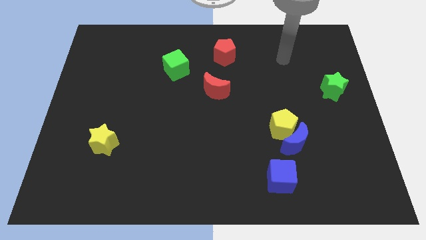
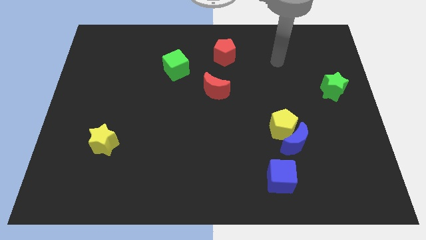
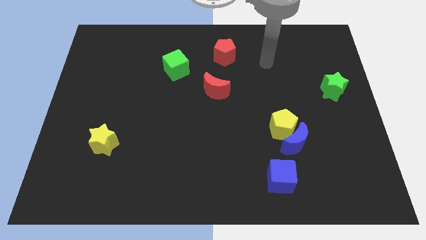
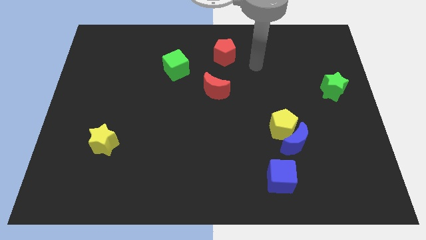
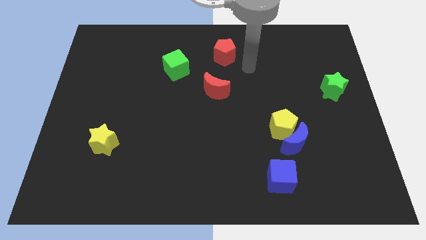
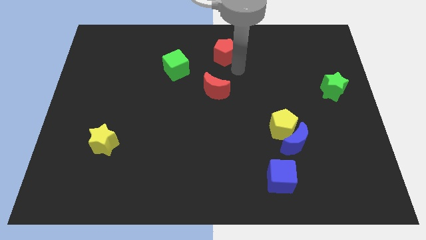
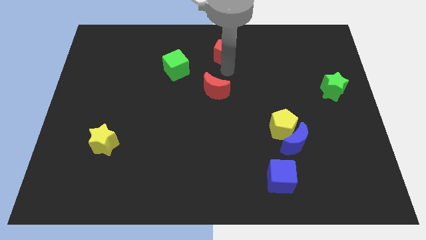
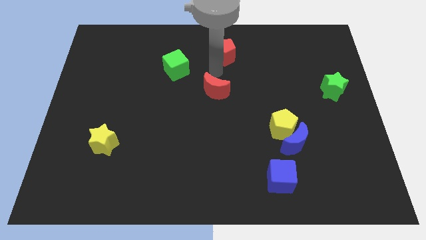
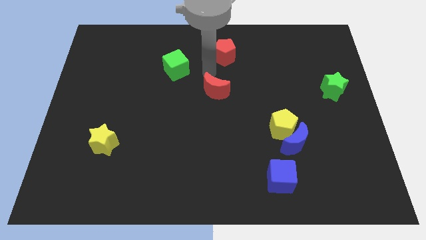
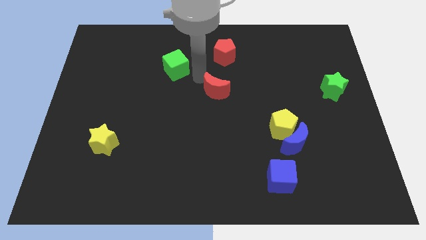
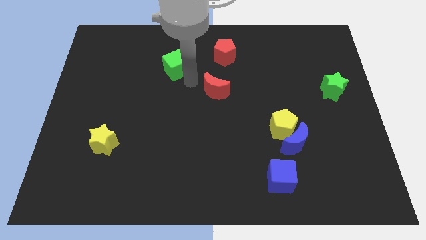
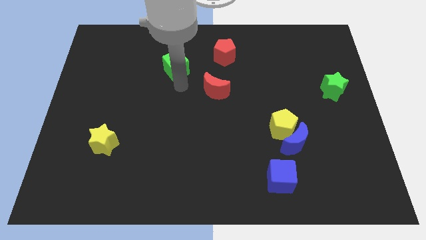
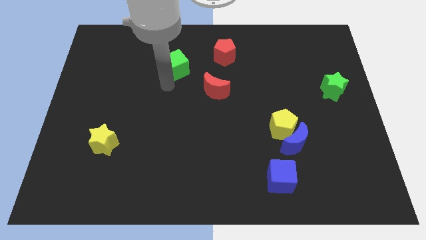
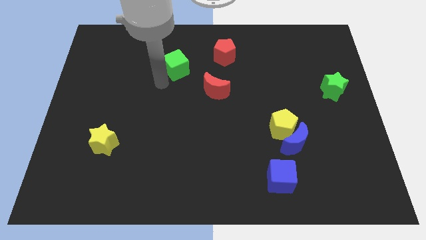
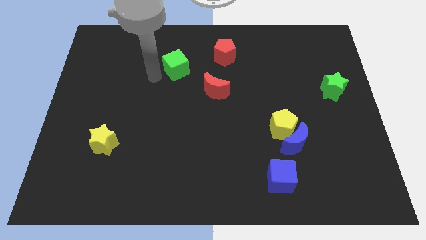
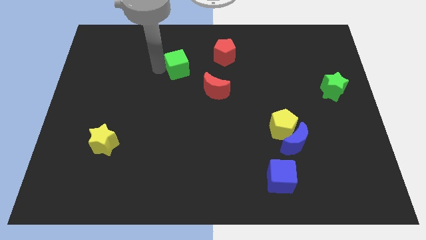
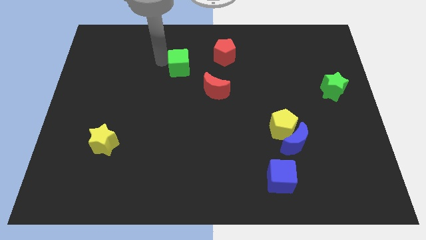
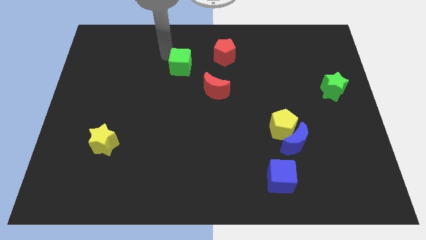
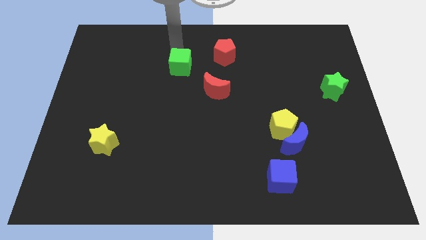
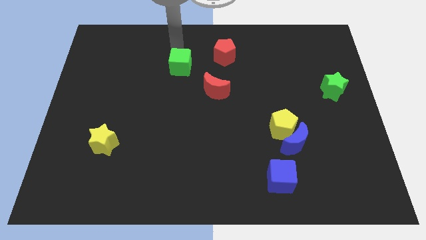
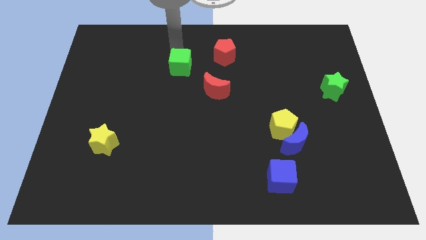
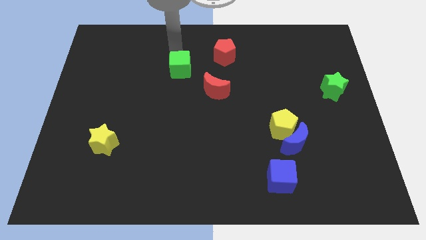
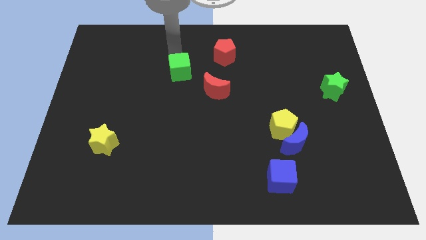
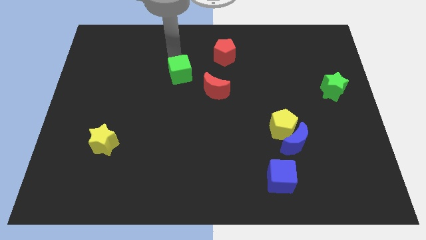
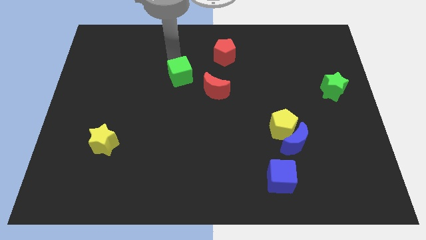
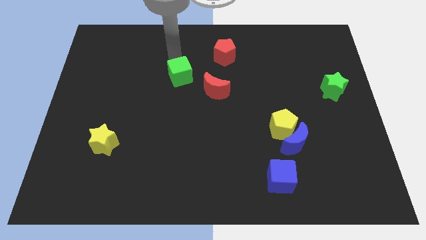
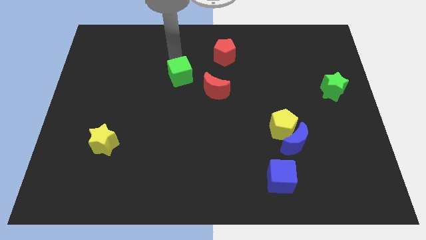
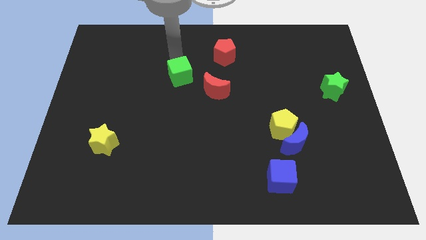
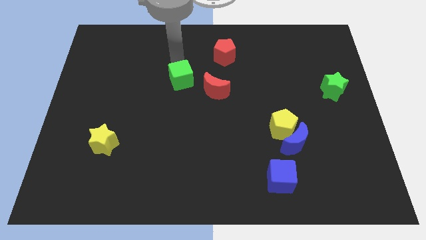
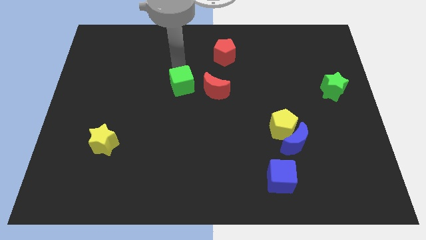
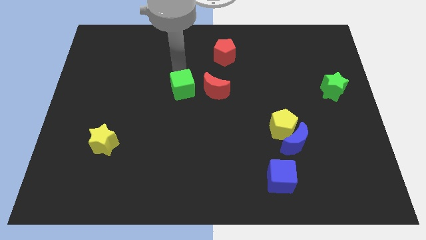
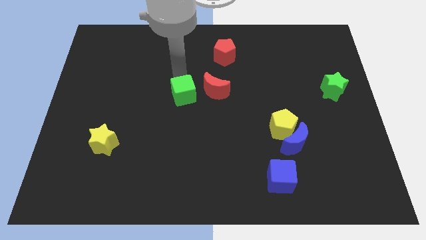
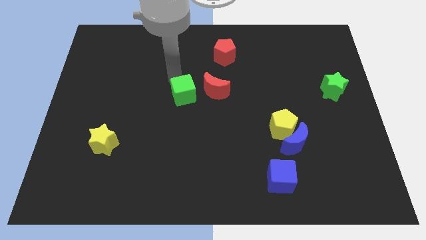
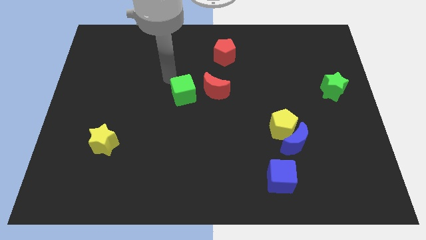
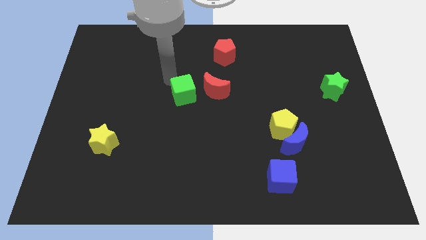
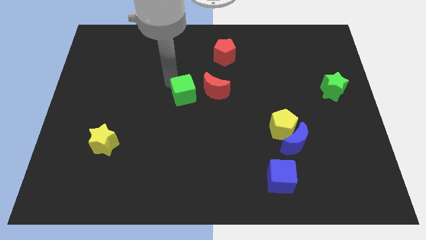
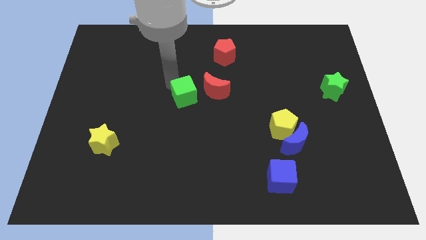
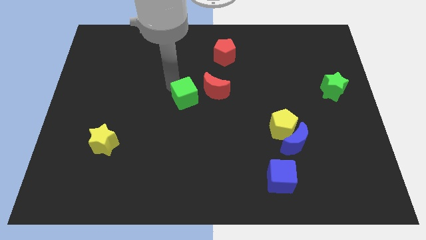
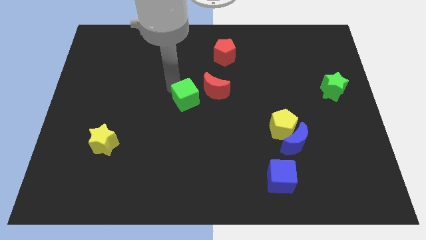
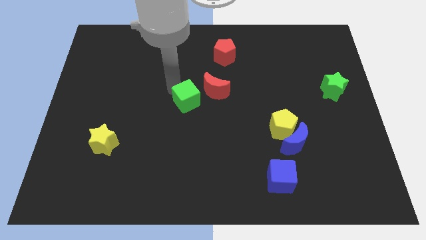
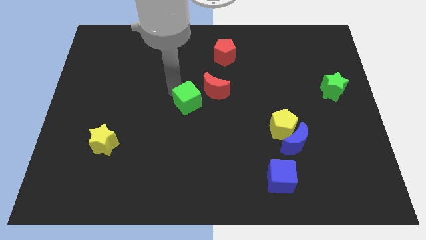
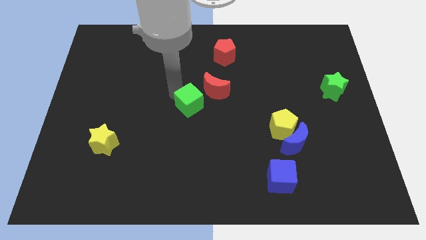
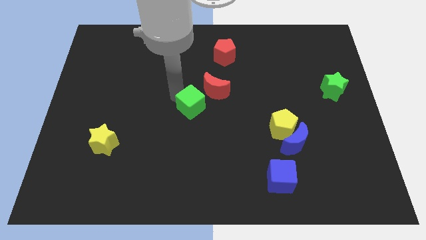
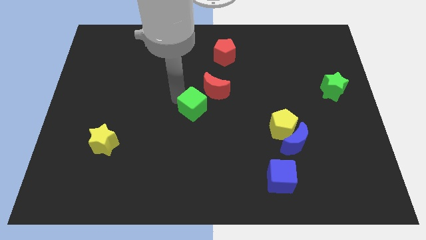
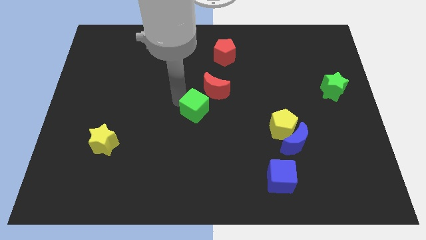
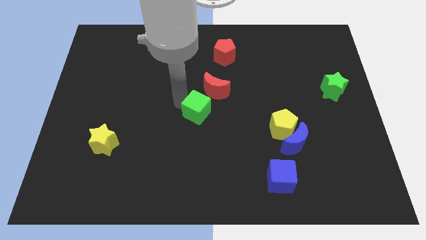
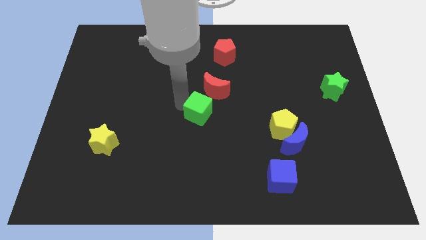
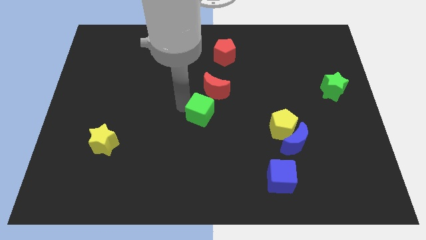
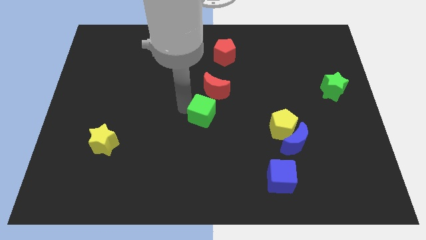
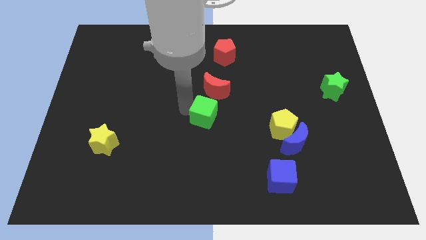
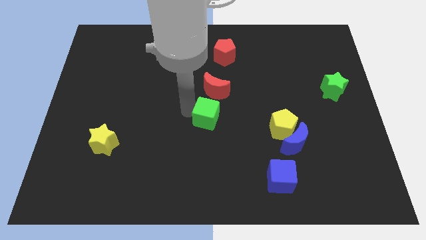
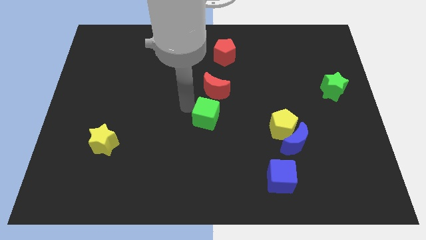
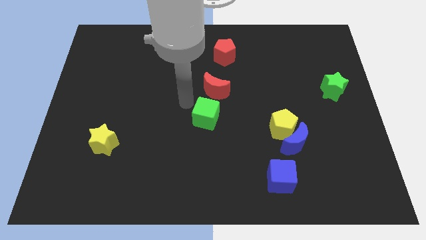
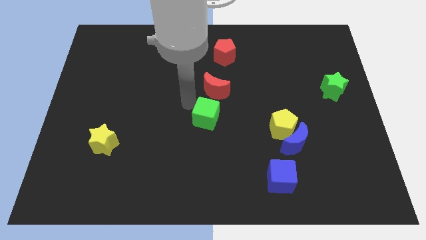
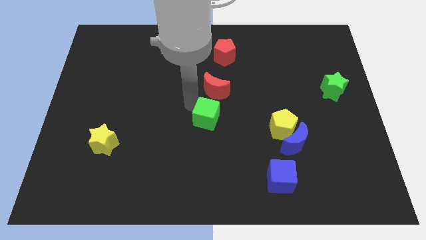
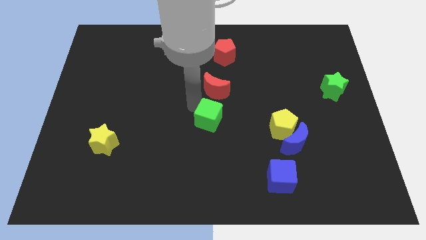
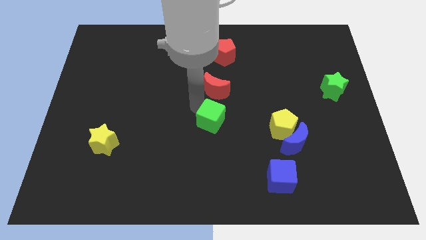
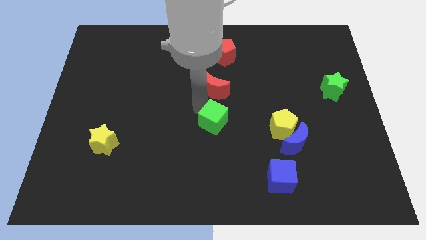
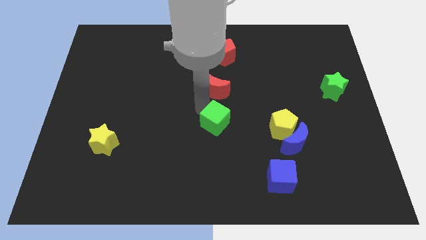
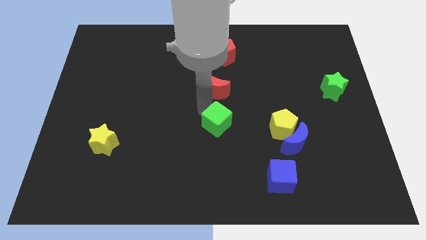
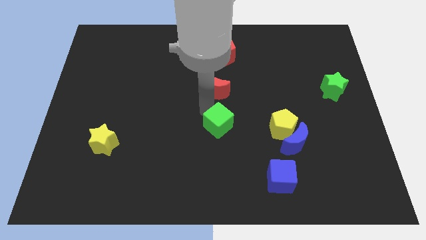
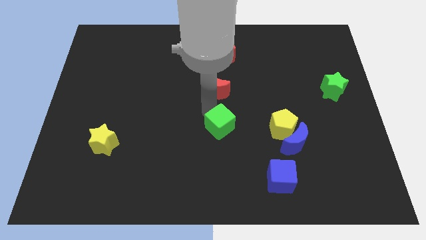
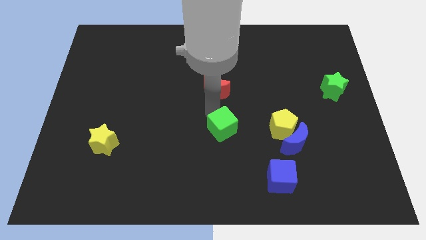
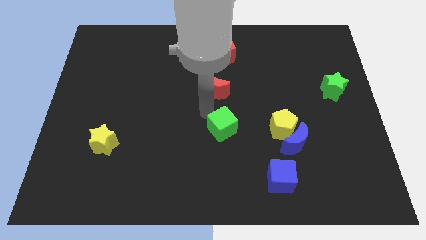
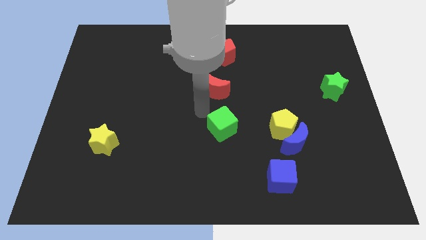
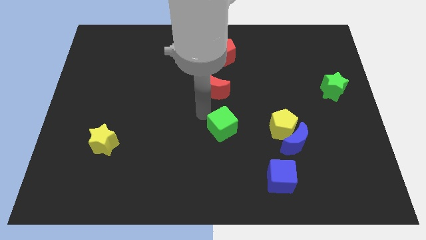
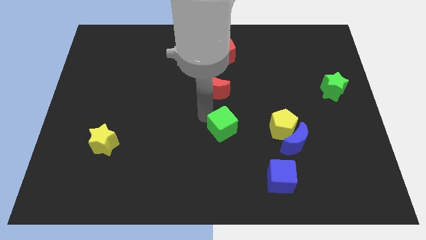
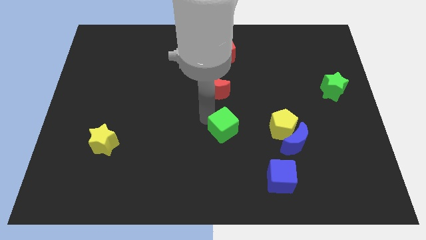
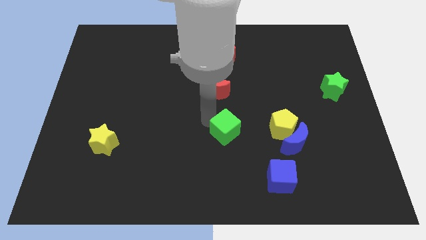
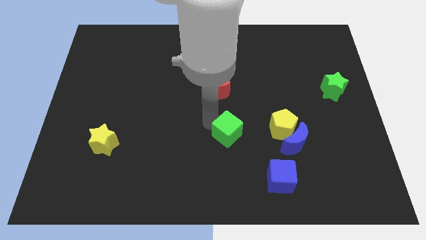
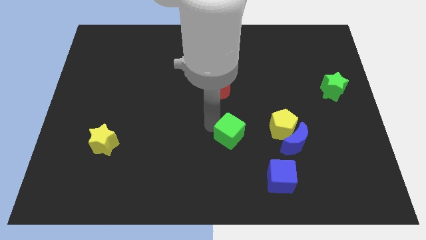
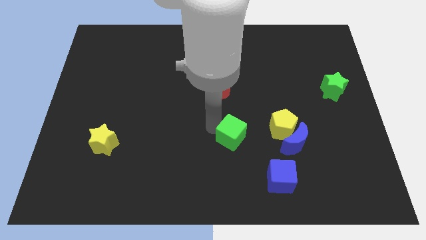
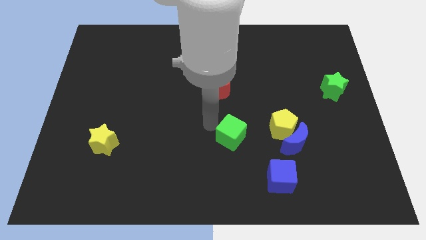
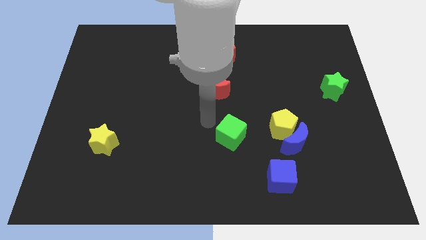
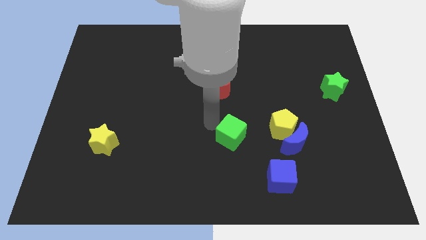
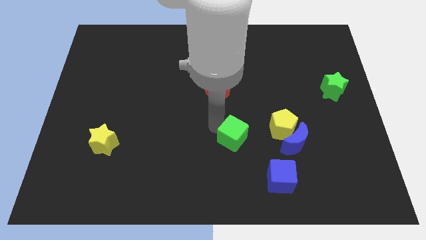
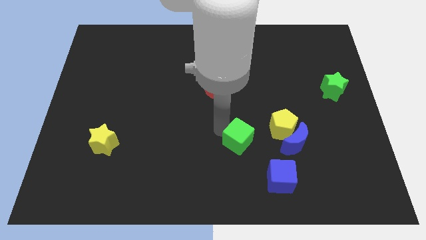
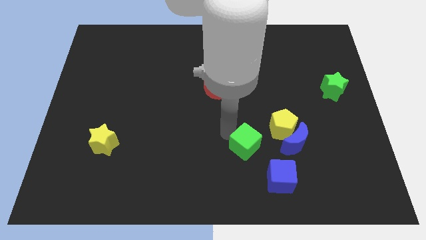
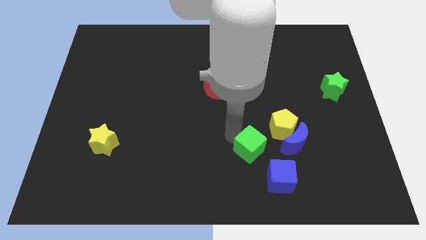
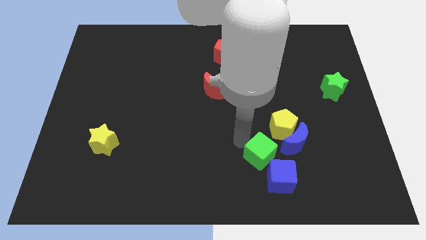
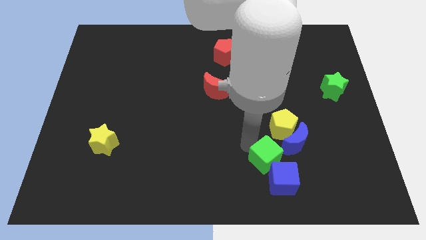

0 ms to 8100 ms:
slide the green cube close to the blue cube
